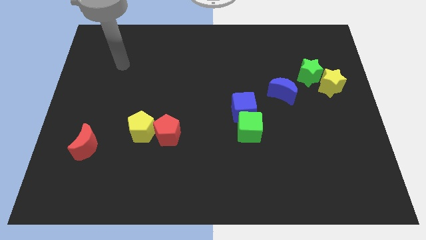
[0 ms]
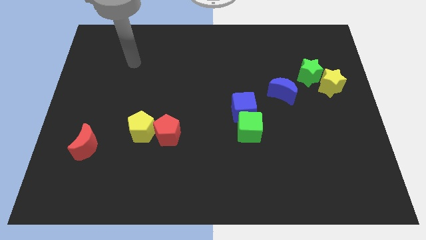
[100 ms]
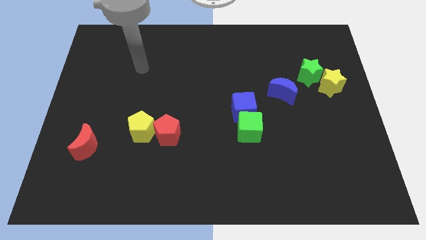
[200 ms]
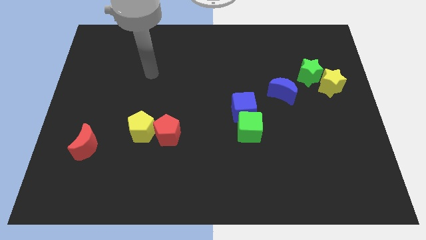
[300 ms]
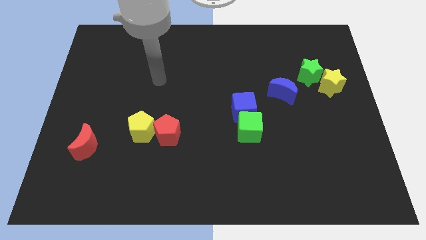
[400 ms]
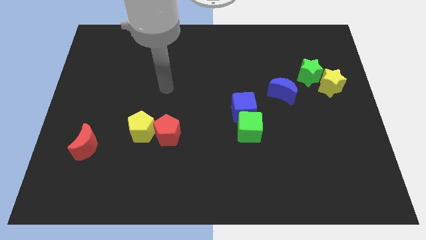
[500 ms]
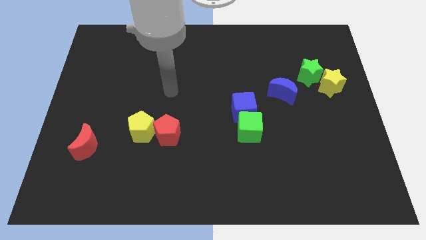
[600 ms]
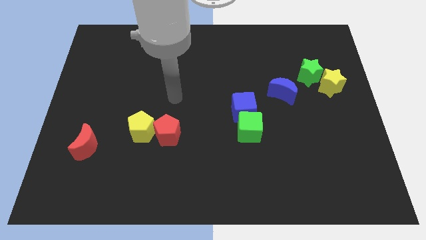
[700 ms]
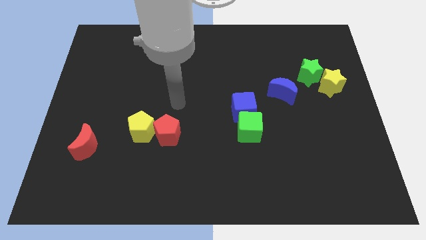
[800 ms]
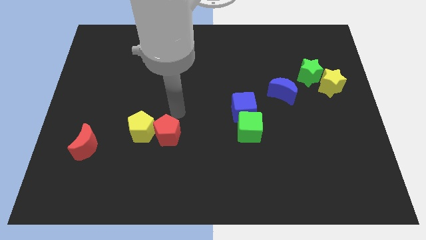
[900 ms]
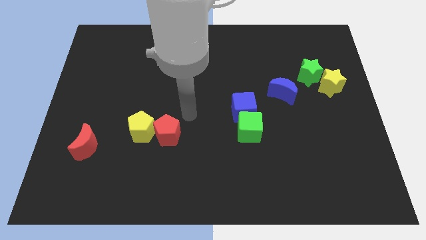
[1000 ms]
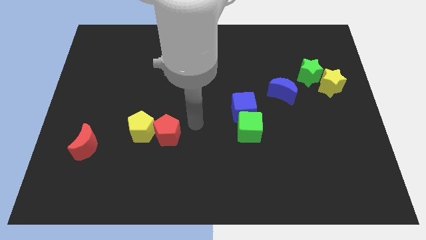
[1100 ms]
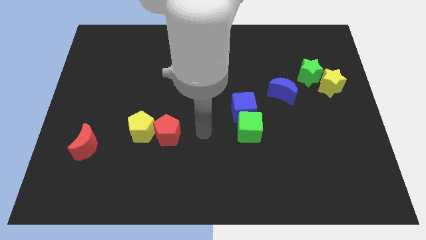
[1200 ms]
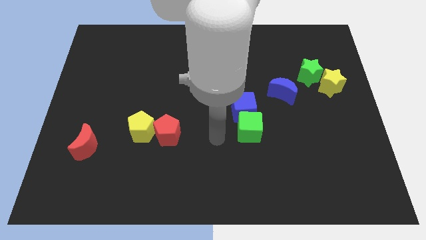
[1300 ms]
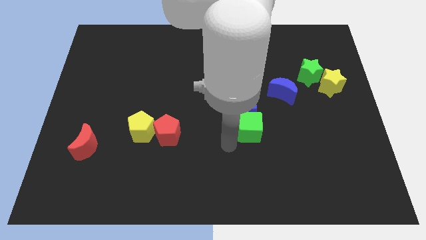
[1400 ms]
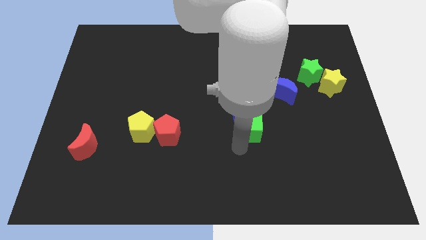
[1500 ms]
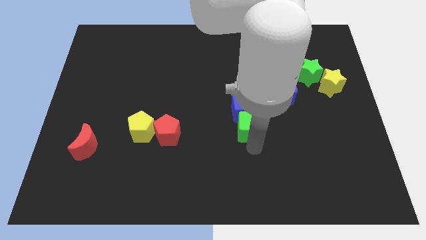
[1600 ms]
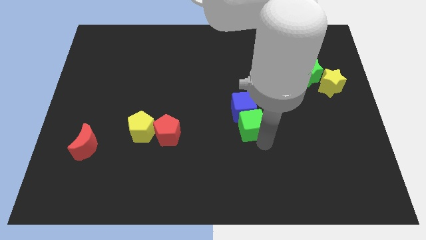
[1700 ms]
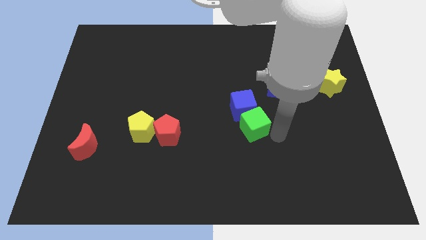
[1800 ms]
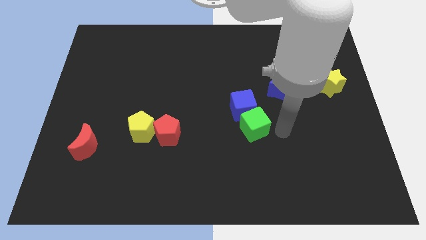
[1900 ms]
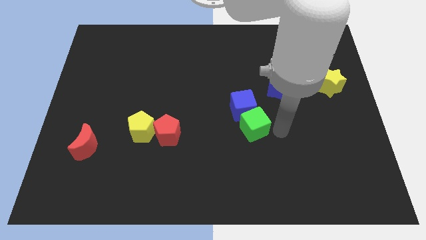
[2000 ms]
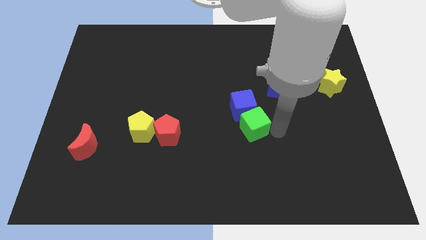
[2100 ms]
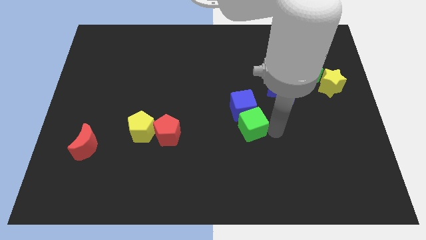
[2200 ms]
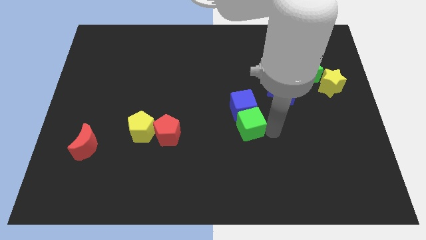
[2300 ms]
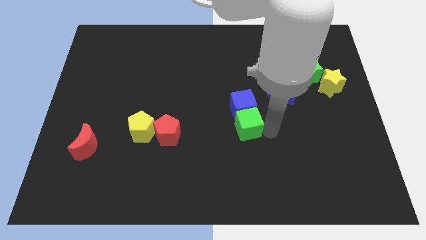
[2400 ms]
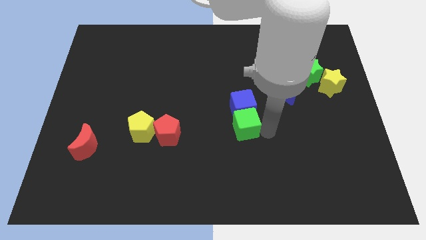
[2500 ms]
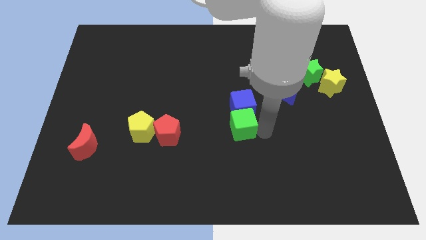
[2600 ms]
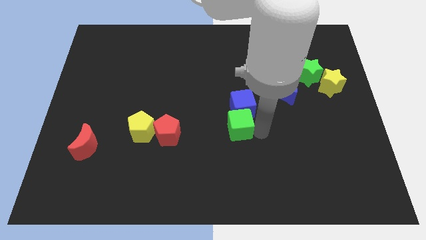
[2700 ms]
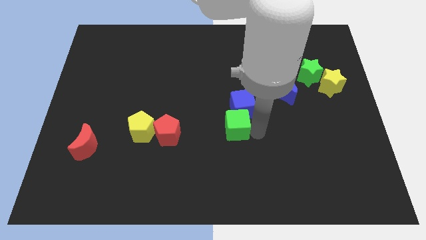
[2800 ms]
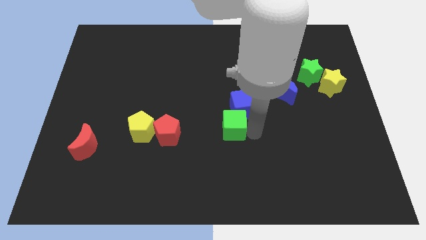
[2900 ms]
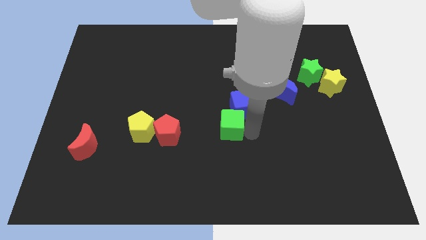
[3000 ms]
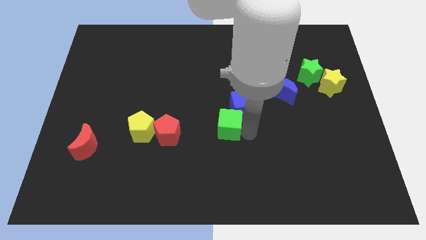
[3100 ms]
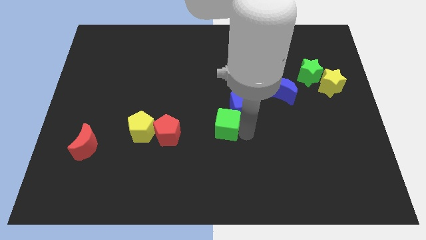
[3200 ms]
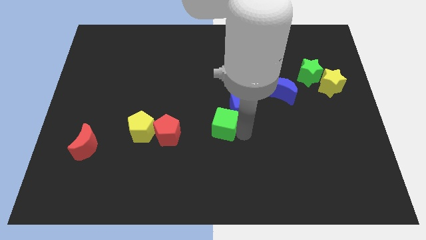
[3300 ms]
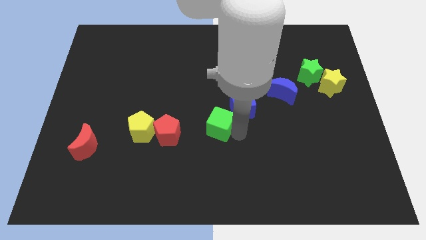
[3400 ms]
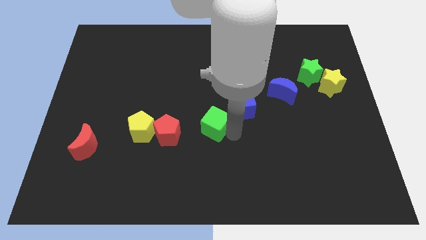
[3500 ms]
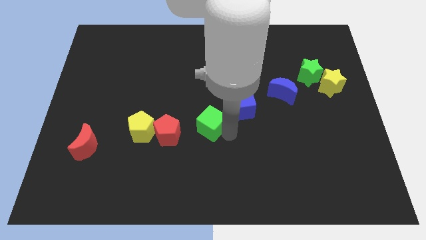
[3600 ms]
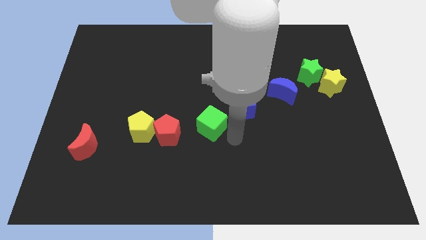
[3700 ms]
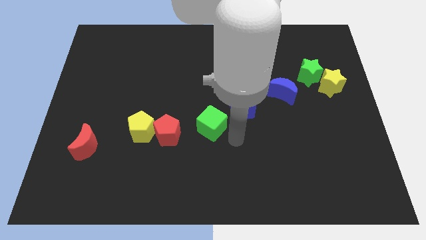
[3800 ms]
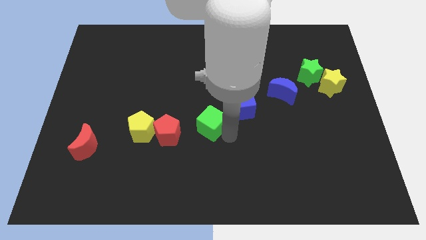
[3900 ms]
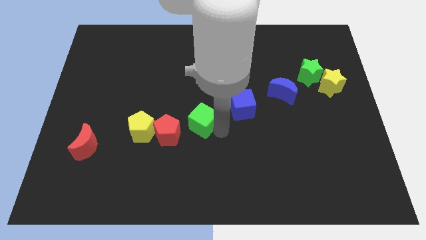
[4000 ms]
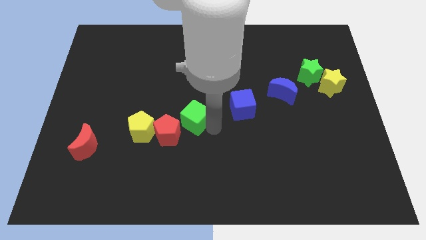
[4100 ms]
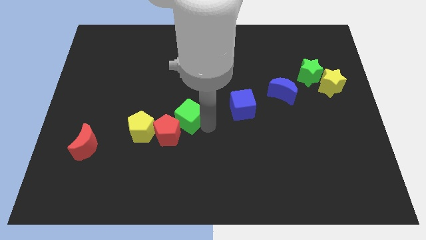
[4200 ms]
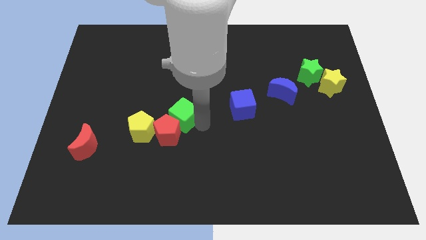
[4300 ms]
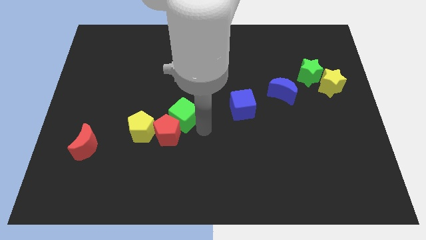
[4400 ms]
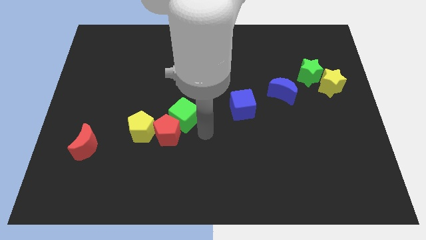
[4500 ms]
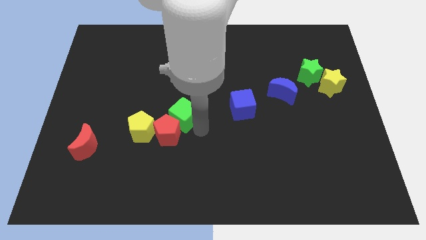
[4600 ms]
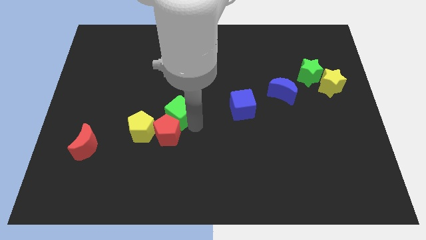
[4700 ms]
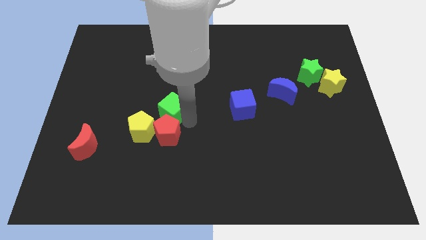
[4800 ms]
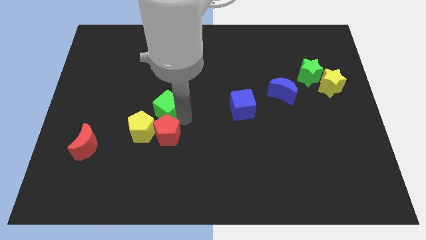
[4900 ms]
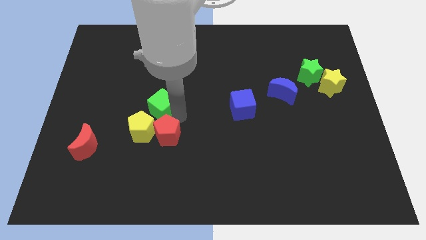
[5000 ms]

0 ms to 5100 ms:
push the green cube to the top side of the yellow pentagon

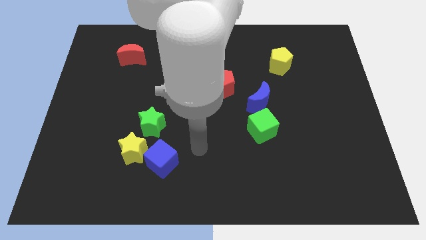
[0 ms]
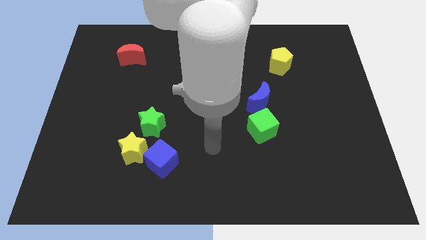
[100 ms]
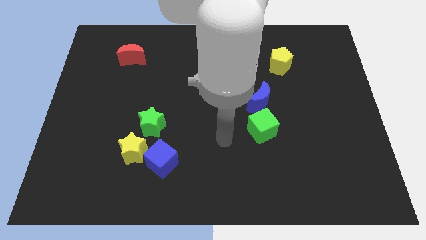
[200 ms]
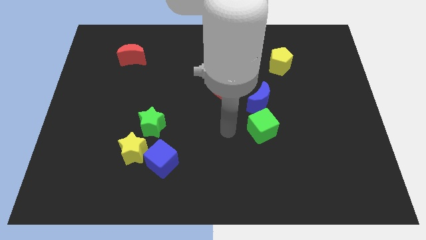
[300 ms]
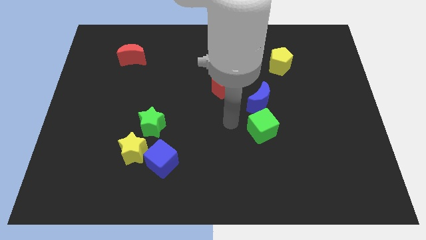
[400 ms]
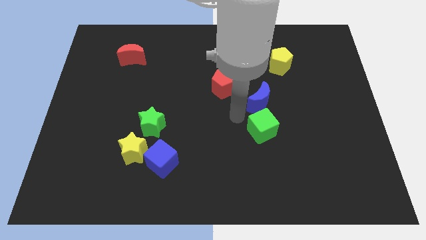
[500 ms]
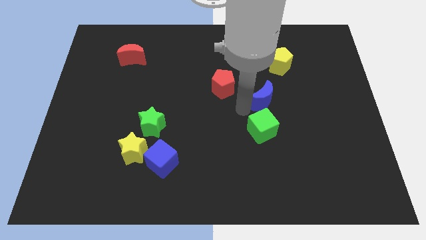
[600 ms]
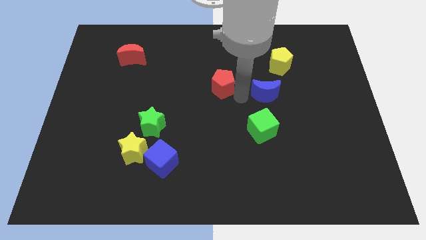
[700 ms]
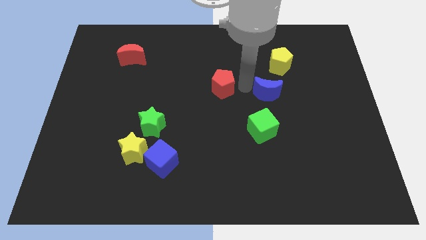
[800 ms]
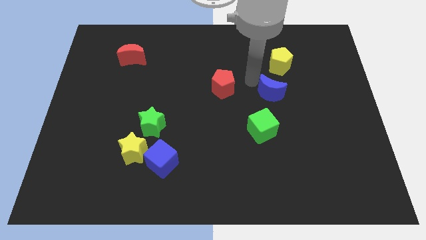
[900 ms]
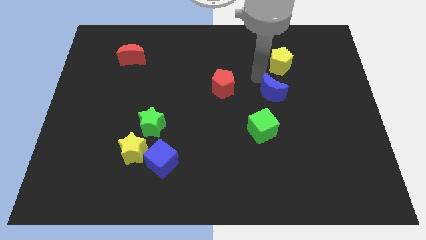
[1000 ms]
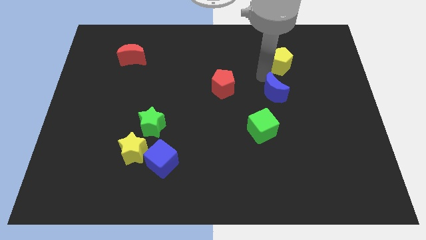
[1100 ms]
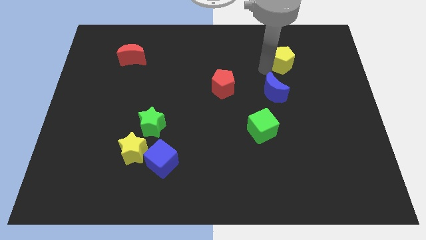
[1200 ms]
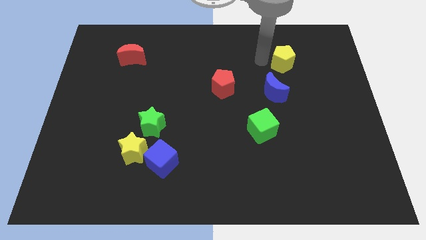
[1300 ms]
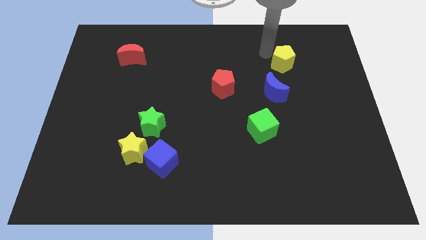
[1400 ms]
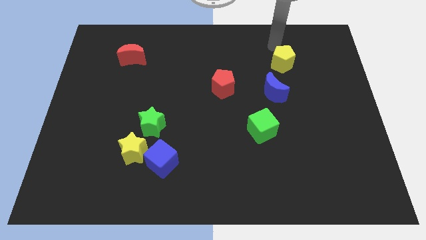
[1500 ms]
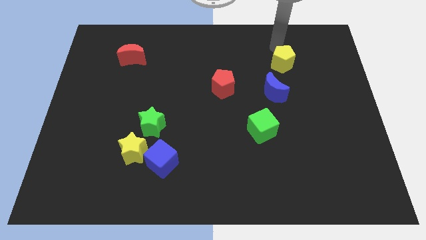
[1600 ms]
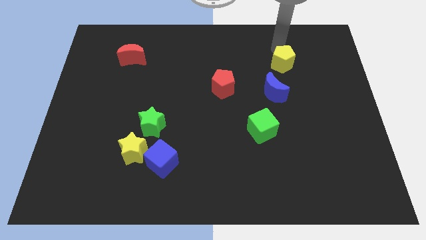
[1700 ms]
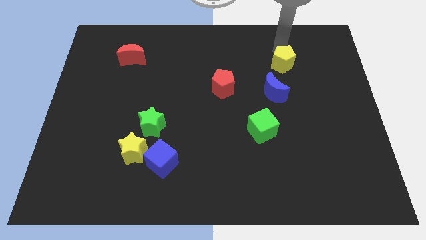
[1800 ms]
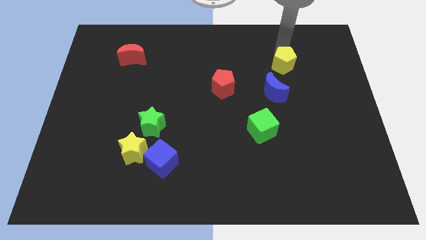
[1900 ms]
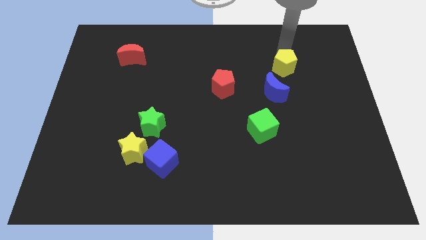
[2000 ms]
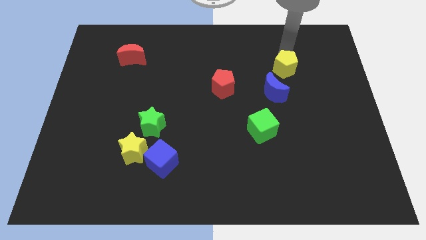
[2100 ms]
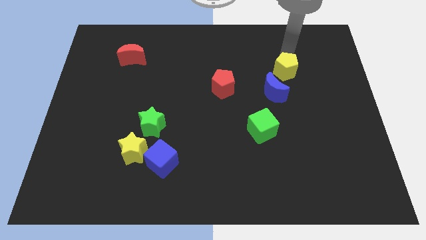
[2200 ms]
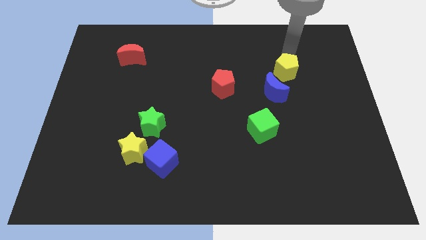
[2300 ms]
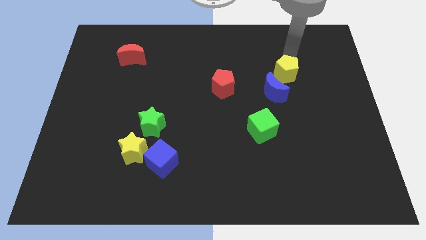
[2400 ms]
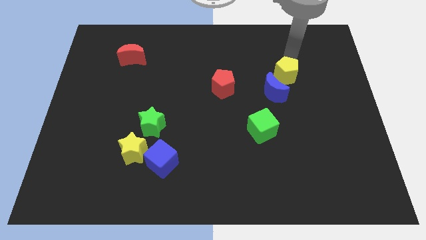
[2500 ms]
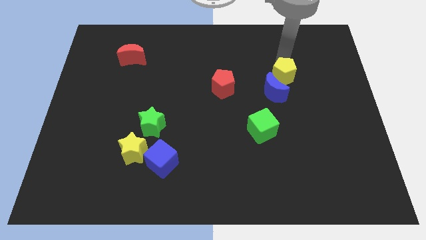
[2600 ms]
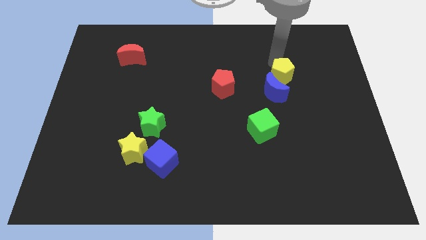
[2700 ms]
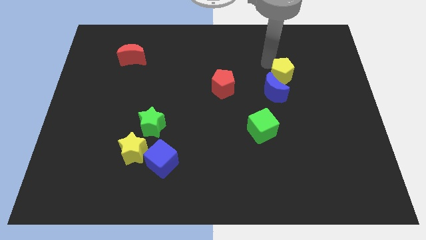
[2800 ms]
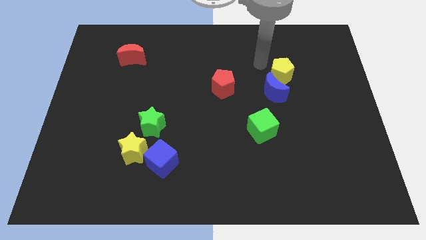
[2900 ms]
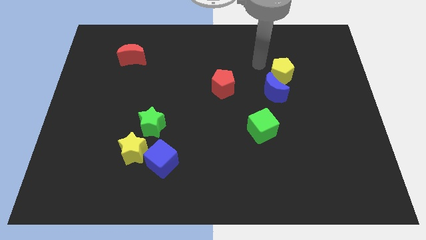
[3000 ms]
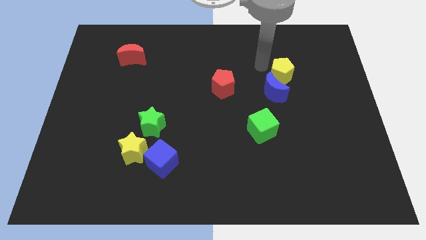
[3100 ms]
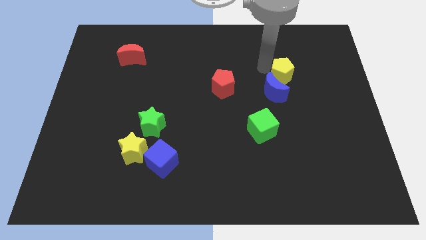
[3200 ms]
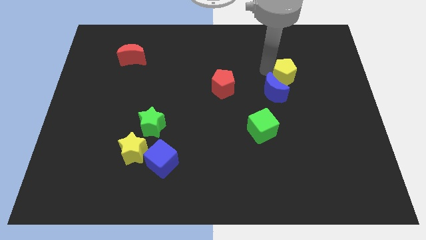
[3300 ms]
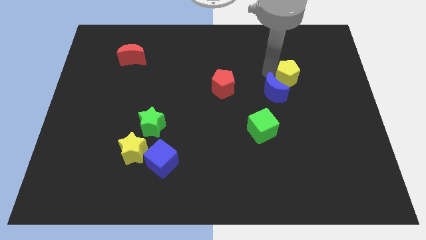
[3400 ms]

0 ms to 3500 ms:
move the yellow pentagon right of the blue moon
